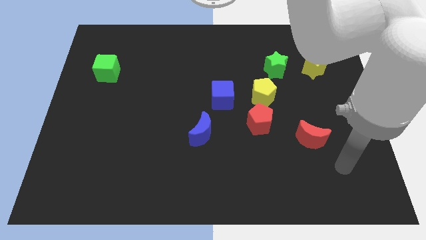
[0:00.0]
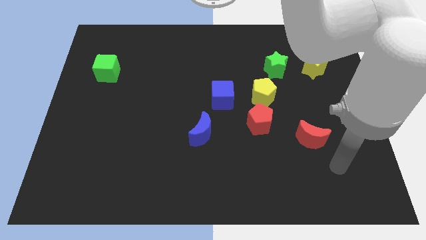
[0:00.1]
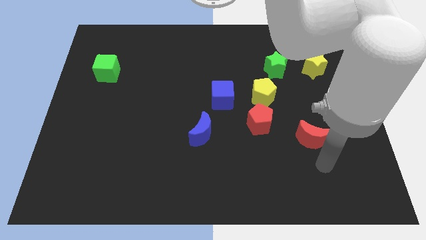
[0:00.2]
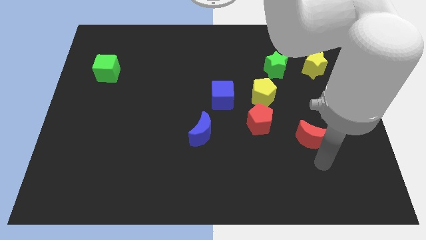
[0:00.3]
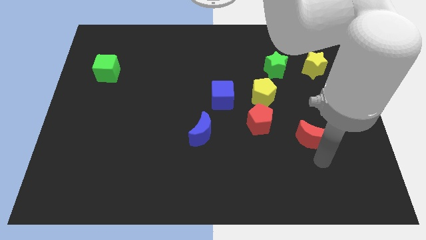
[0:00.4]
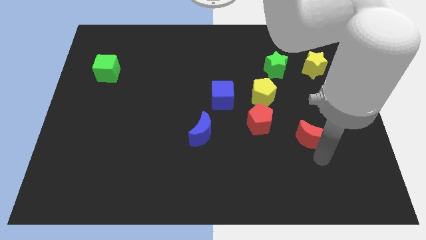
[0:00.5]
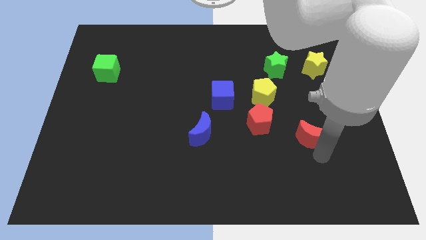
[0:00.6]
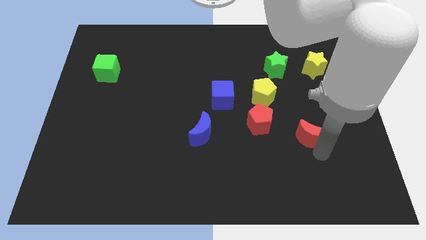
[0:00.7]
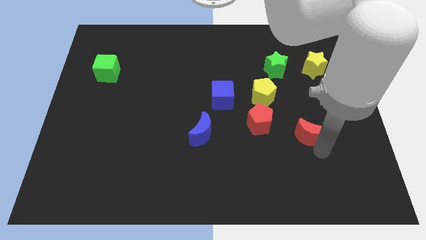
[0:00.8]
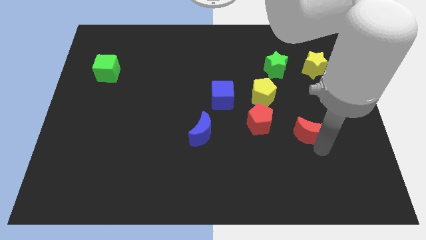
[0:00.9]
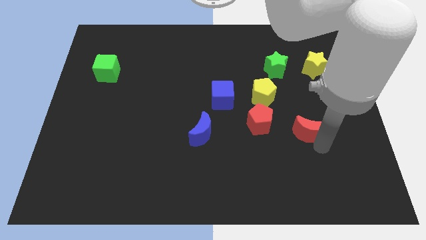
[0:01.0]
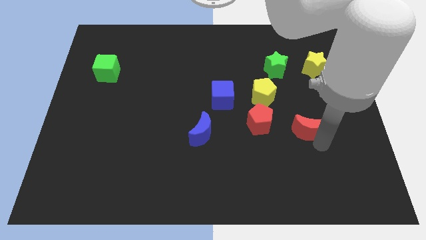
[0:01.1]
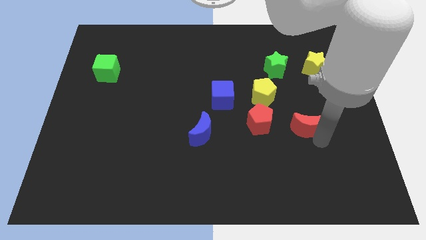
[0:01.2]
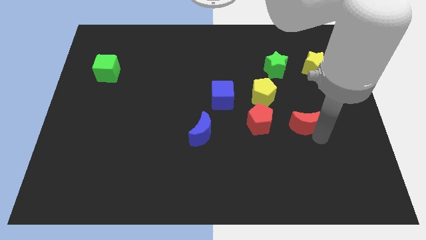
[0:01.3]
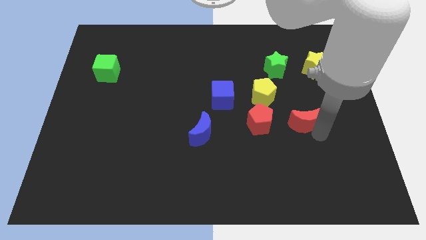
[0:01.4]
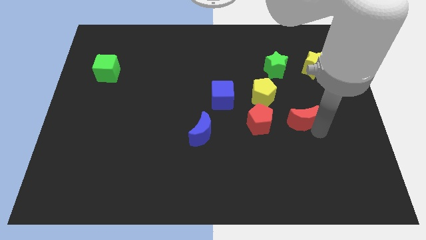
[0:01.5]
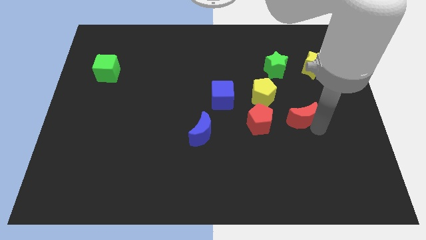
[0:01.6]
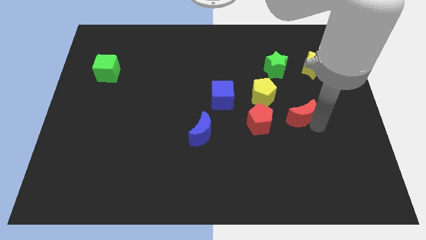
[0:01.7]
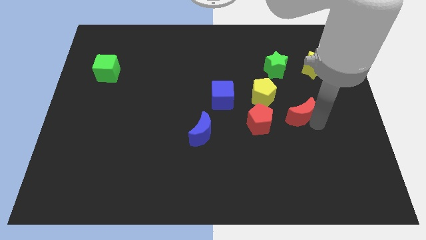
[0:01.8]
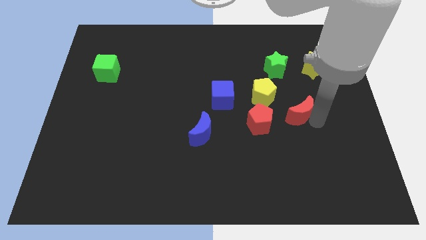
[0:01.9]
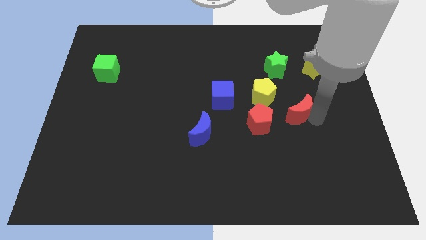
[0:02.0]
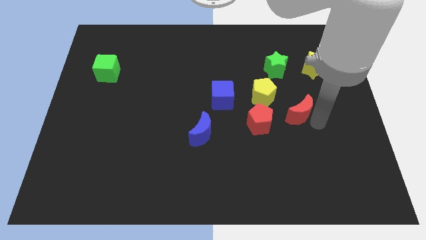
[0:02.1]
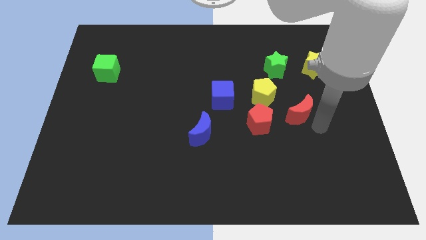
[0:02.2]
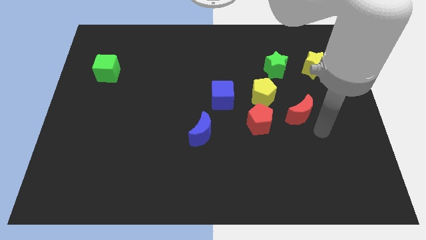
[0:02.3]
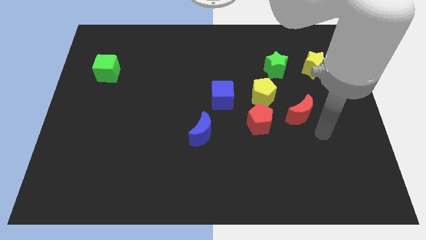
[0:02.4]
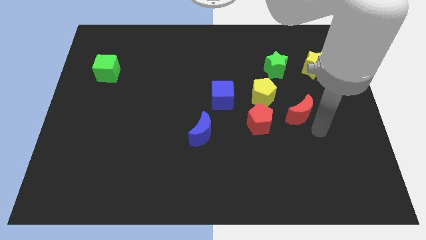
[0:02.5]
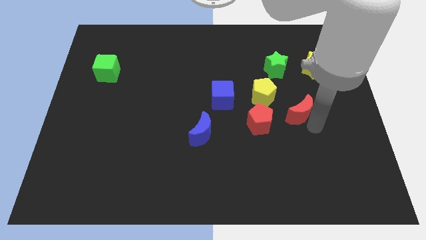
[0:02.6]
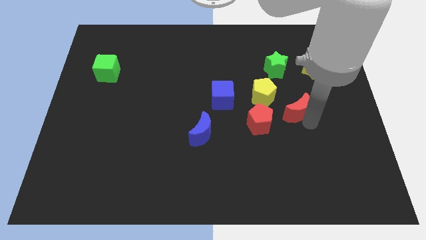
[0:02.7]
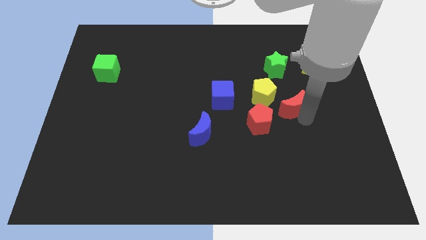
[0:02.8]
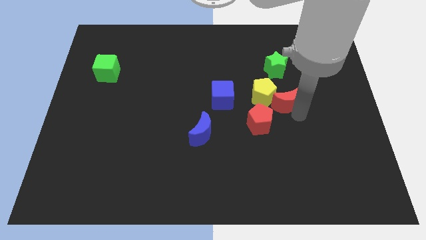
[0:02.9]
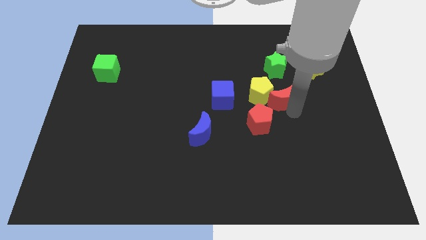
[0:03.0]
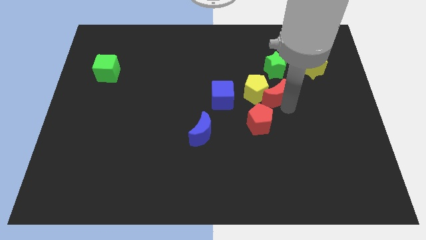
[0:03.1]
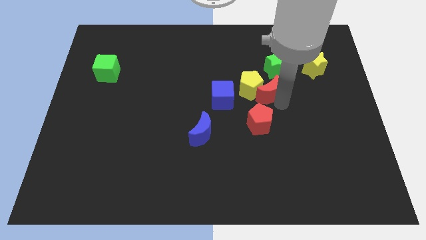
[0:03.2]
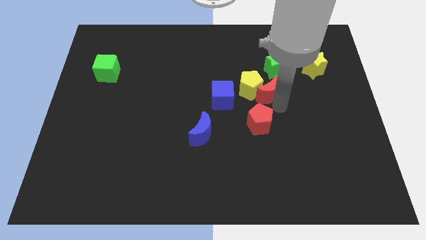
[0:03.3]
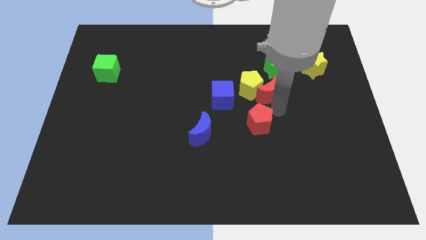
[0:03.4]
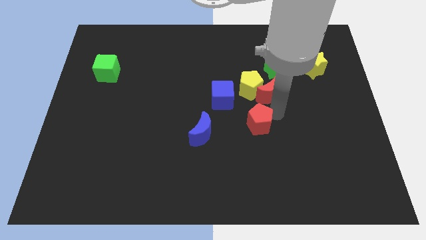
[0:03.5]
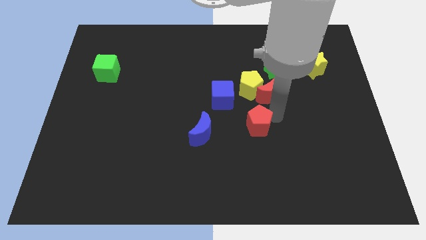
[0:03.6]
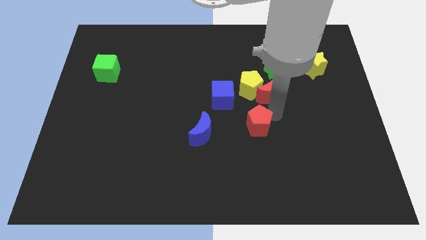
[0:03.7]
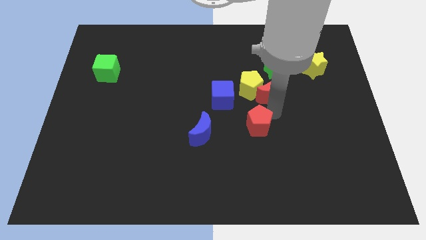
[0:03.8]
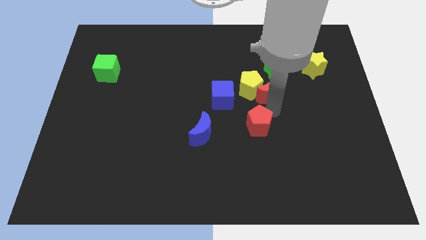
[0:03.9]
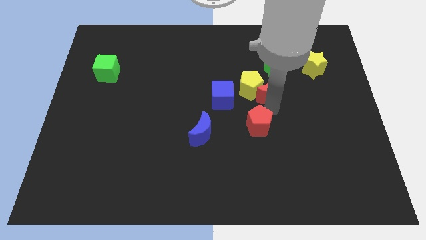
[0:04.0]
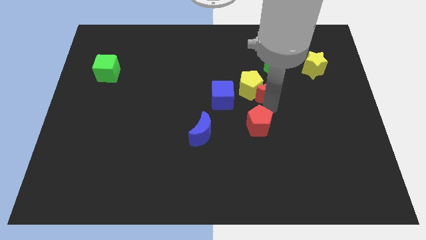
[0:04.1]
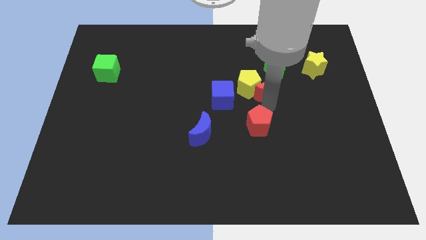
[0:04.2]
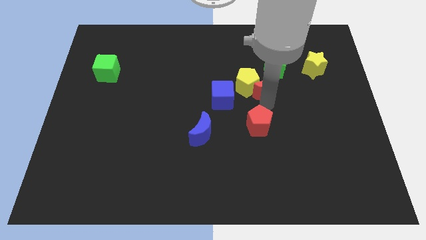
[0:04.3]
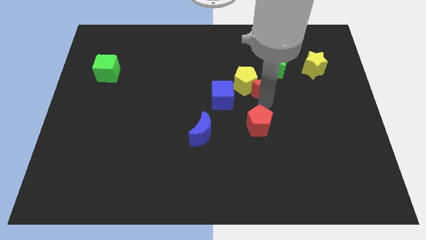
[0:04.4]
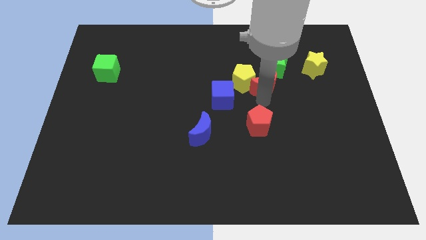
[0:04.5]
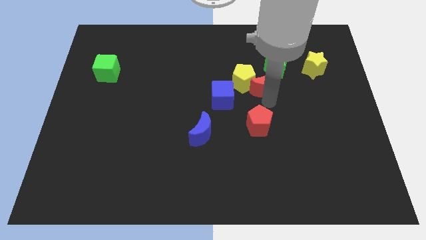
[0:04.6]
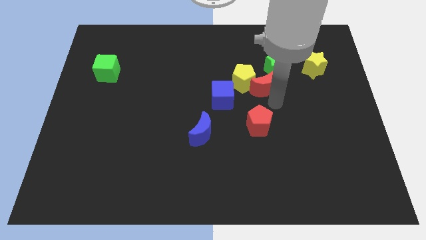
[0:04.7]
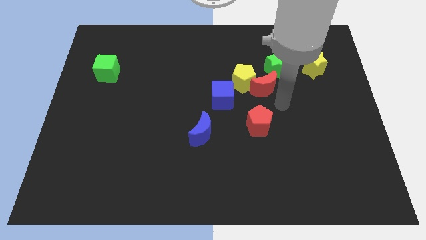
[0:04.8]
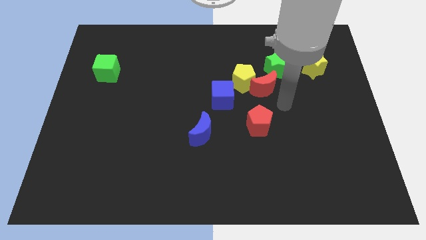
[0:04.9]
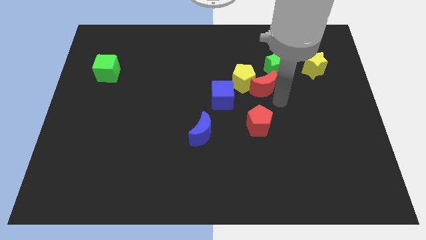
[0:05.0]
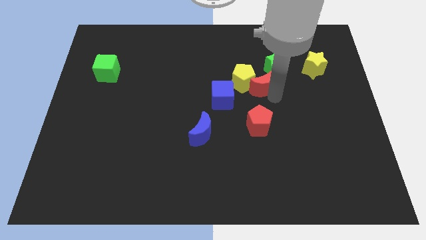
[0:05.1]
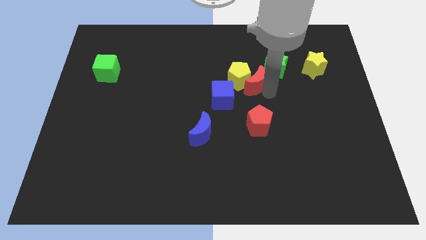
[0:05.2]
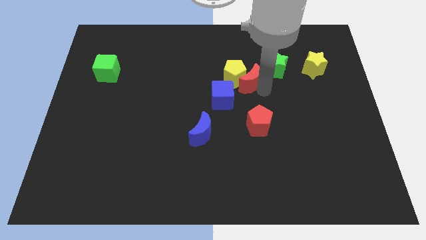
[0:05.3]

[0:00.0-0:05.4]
move the red moon up and to the left diagonally

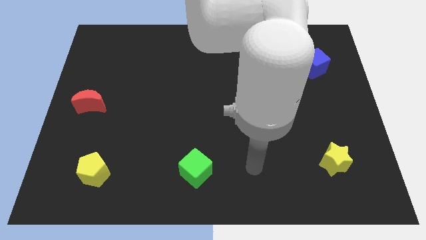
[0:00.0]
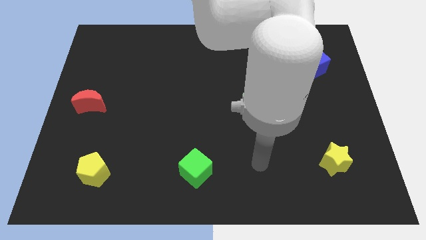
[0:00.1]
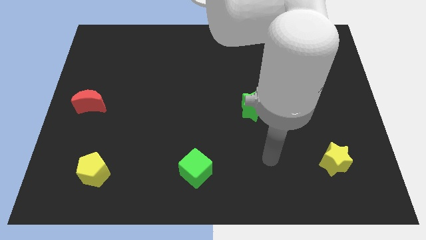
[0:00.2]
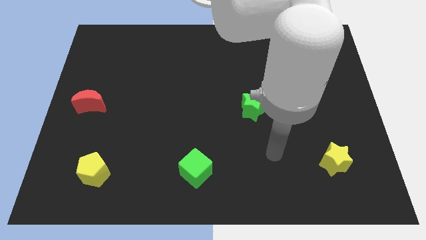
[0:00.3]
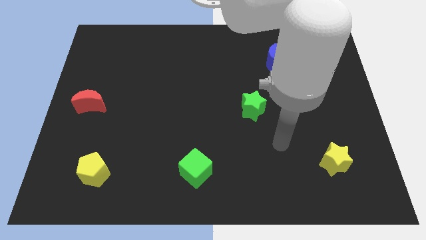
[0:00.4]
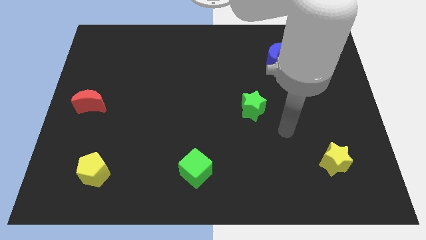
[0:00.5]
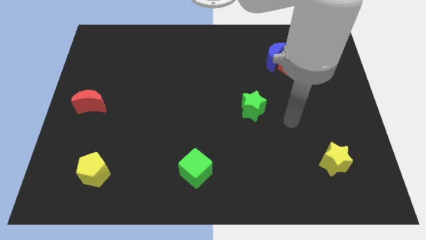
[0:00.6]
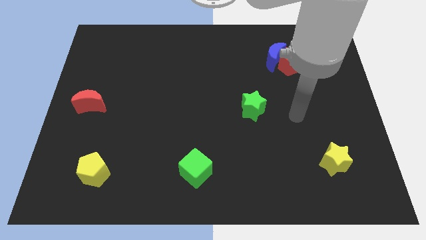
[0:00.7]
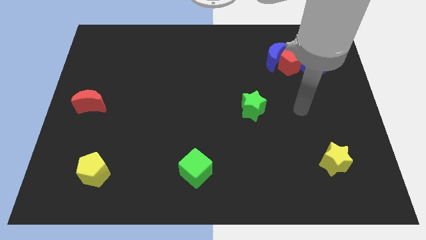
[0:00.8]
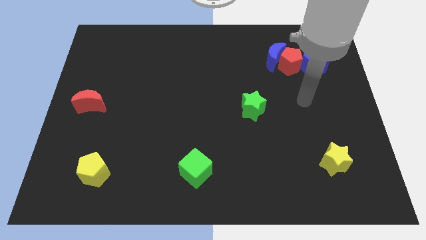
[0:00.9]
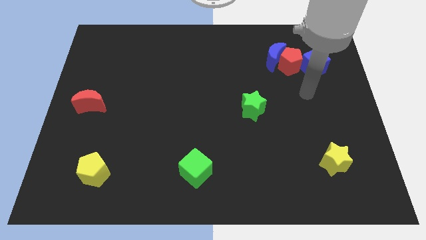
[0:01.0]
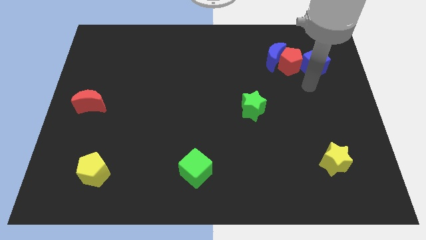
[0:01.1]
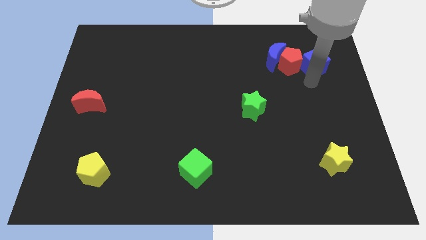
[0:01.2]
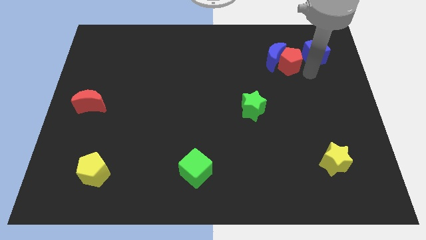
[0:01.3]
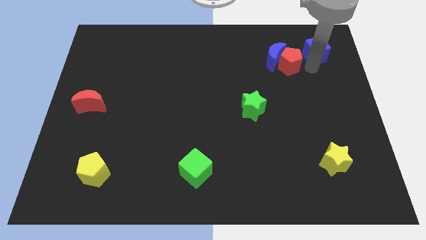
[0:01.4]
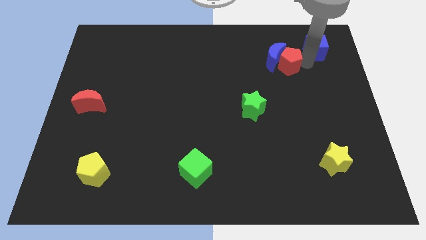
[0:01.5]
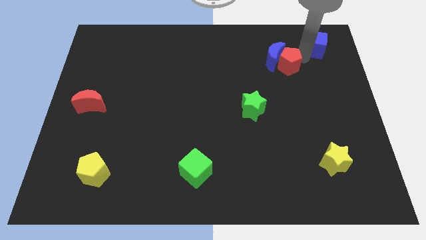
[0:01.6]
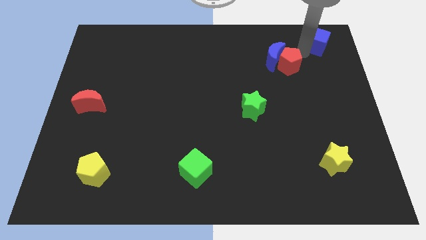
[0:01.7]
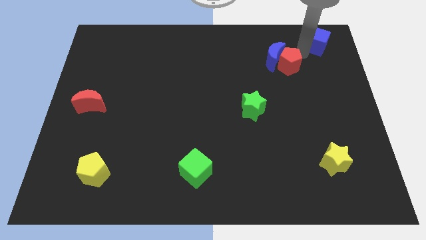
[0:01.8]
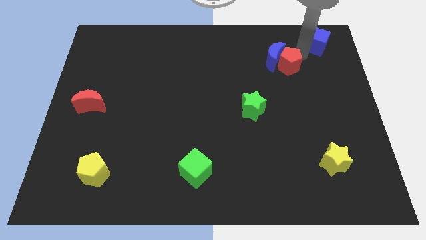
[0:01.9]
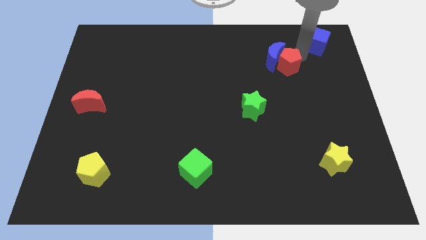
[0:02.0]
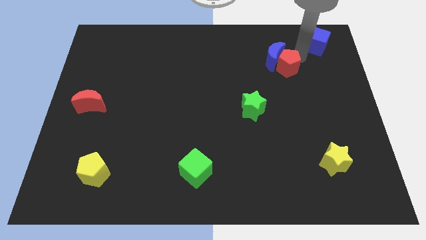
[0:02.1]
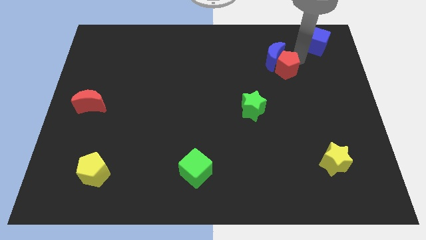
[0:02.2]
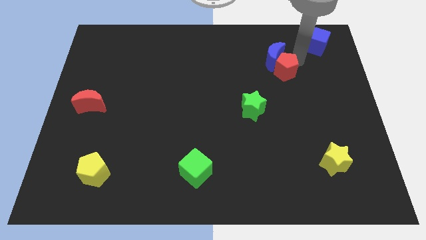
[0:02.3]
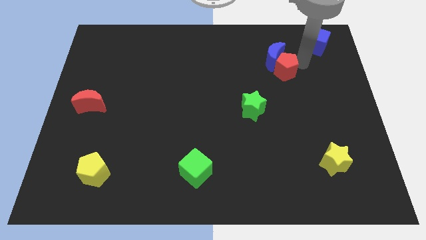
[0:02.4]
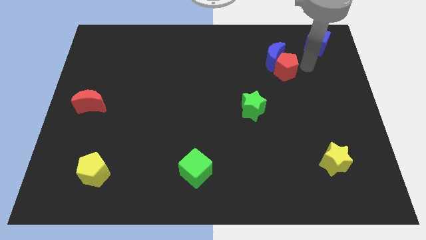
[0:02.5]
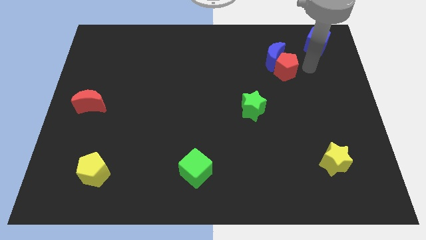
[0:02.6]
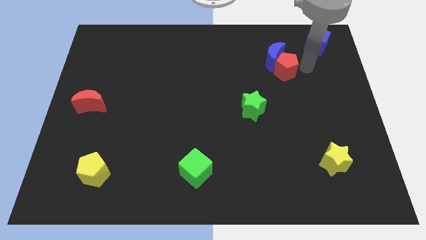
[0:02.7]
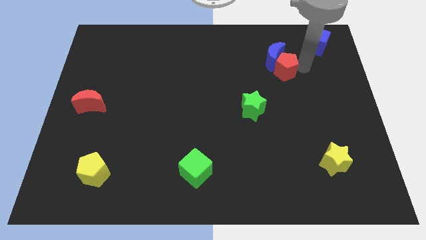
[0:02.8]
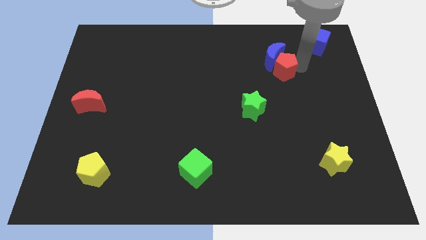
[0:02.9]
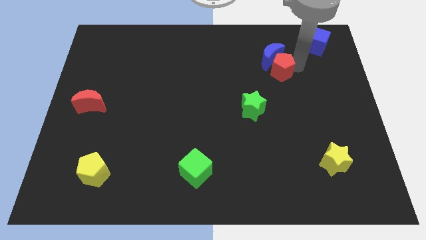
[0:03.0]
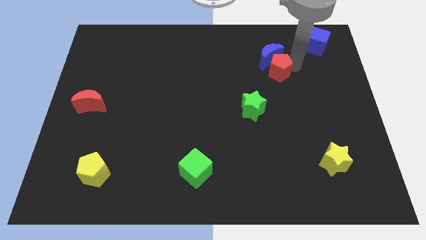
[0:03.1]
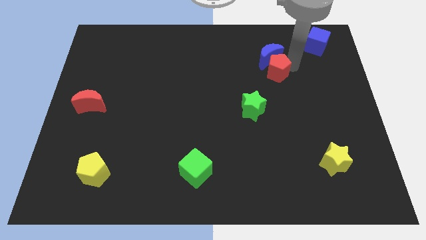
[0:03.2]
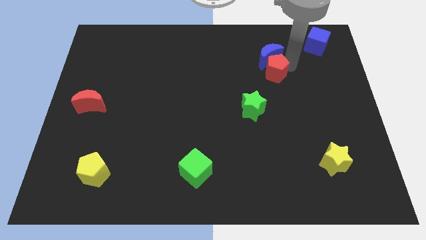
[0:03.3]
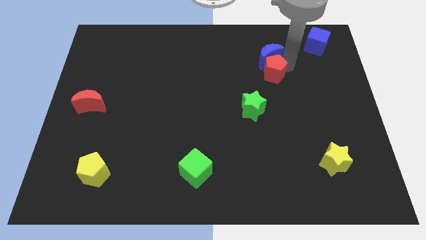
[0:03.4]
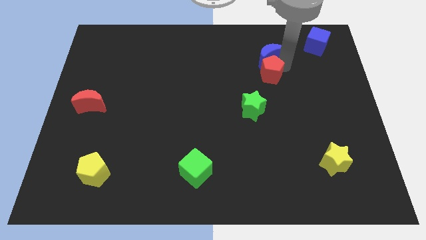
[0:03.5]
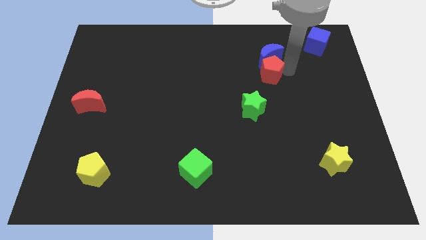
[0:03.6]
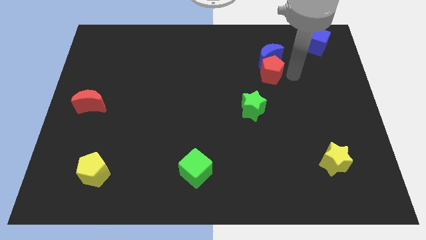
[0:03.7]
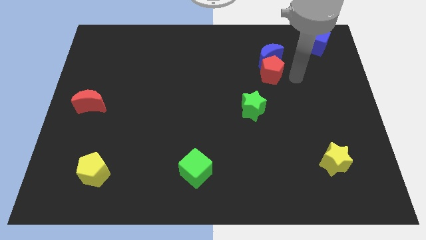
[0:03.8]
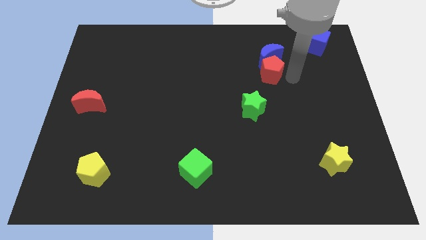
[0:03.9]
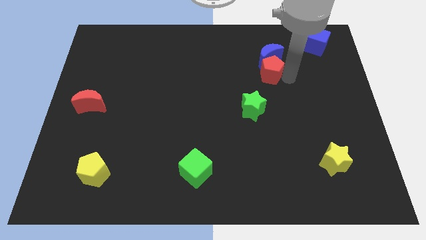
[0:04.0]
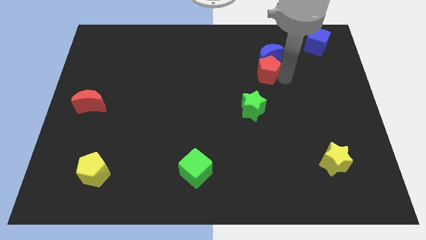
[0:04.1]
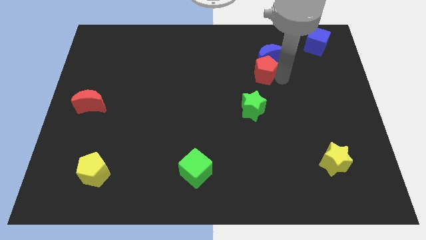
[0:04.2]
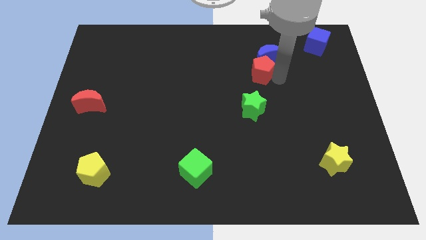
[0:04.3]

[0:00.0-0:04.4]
slightly push the red pentagon to the left
